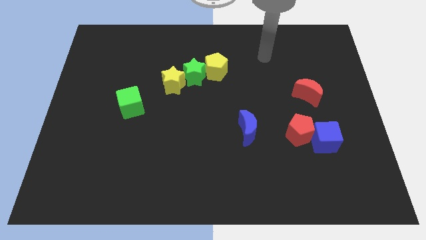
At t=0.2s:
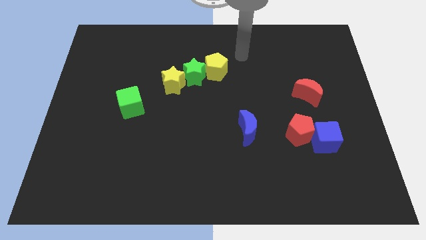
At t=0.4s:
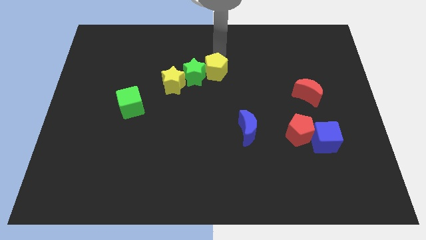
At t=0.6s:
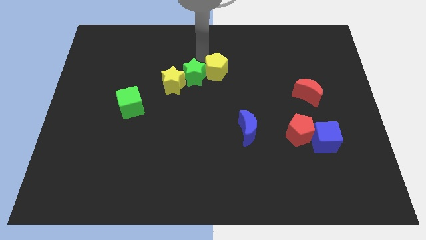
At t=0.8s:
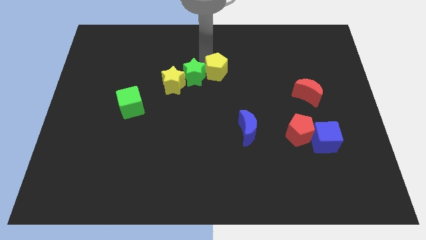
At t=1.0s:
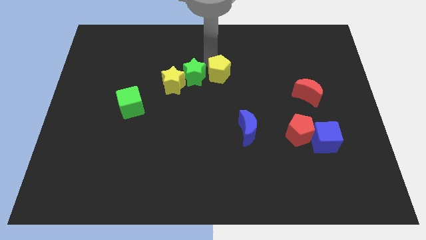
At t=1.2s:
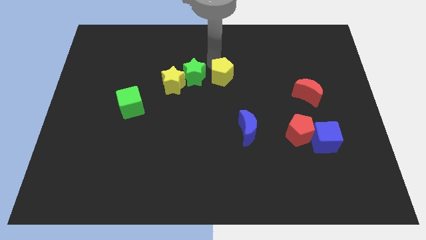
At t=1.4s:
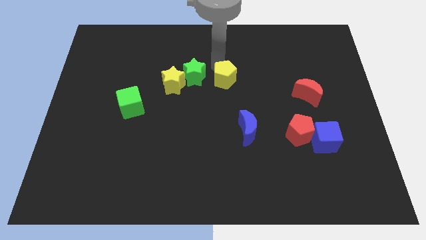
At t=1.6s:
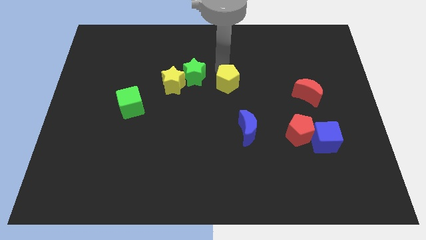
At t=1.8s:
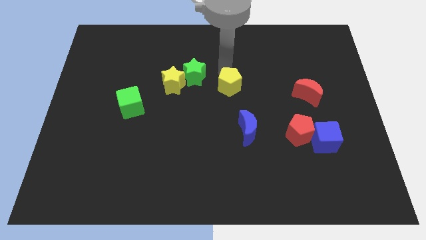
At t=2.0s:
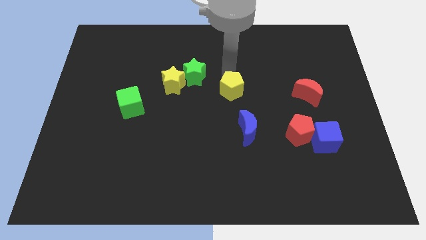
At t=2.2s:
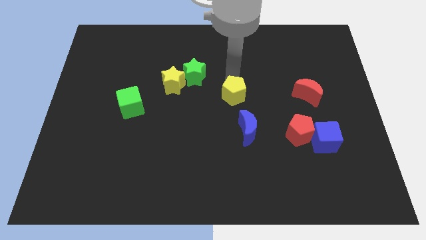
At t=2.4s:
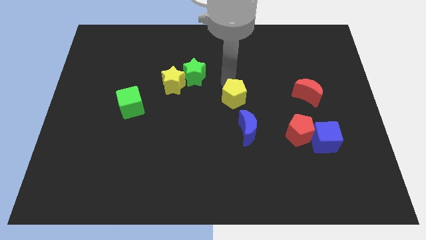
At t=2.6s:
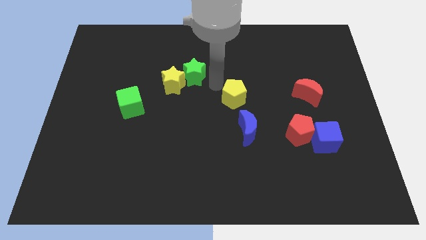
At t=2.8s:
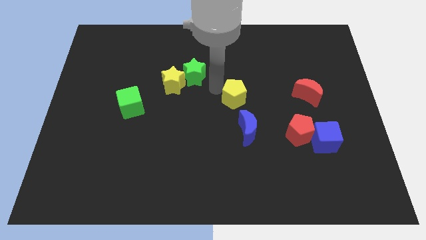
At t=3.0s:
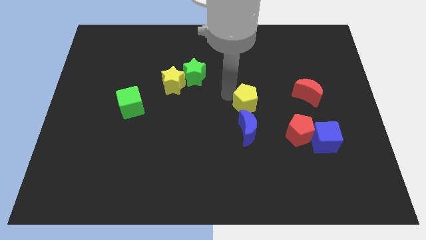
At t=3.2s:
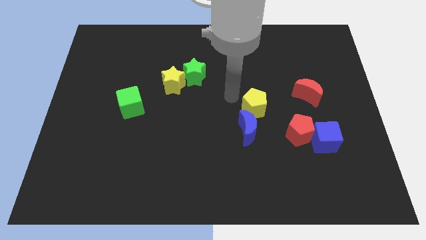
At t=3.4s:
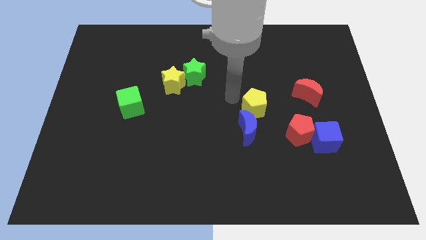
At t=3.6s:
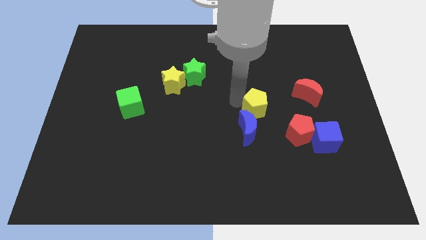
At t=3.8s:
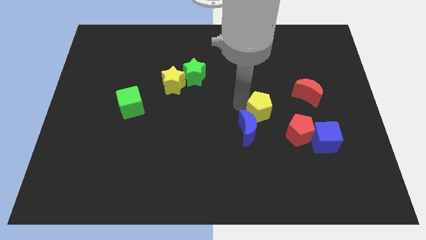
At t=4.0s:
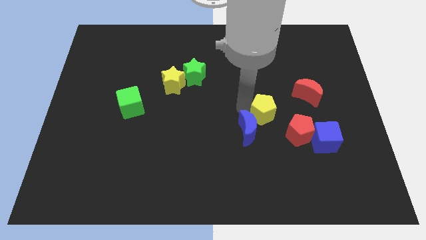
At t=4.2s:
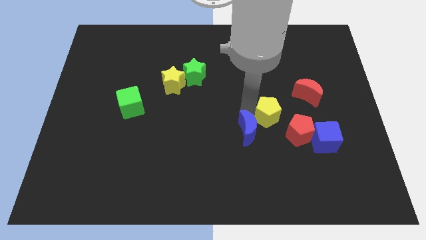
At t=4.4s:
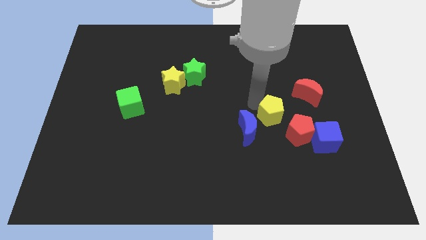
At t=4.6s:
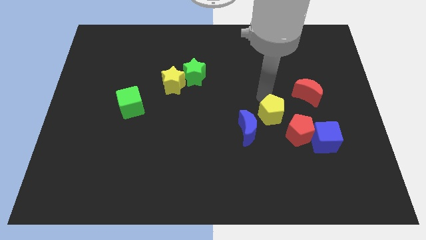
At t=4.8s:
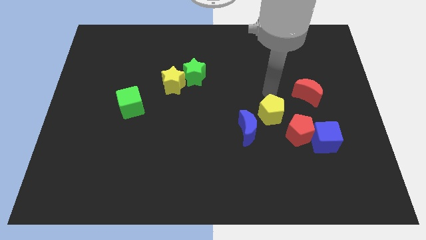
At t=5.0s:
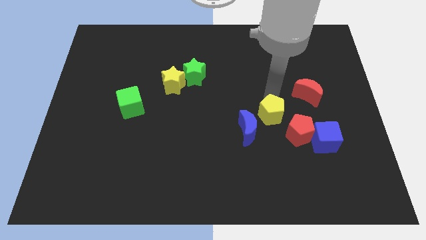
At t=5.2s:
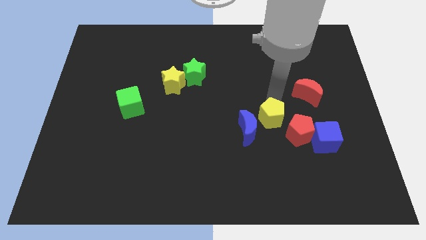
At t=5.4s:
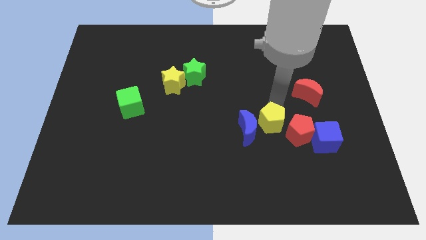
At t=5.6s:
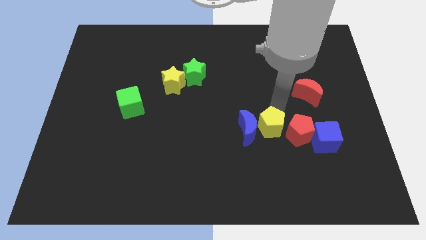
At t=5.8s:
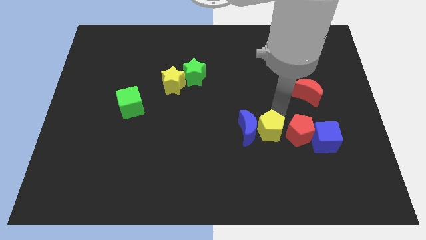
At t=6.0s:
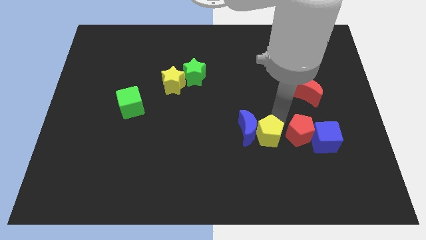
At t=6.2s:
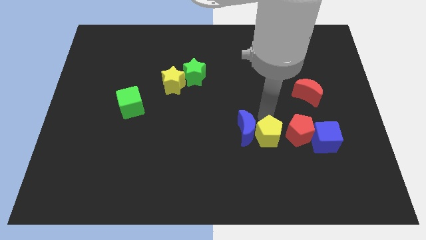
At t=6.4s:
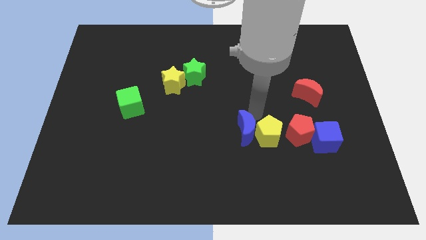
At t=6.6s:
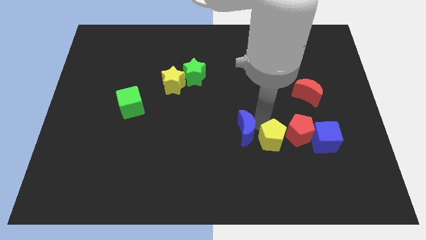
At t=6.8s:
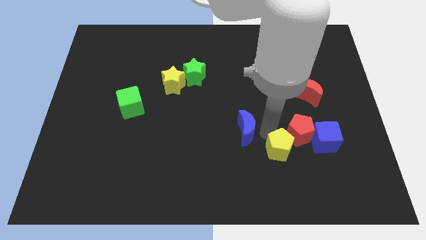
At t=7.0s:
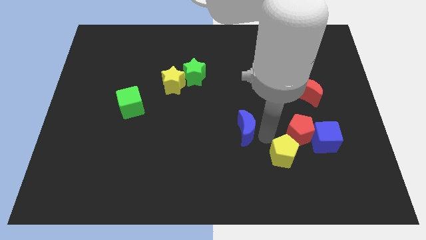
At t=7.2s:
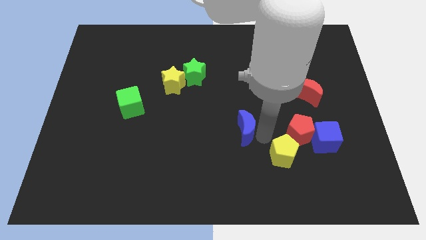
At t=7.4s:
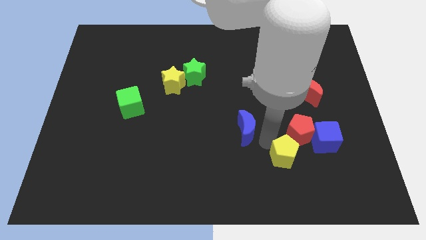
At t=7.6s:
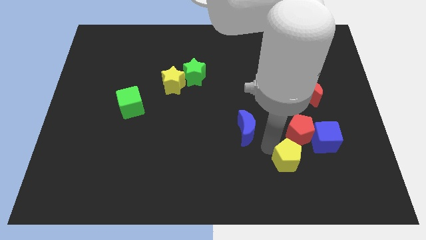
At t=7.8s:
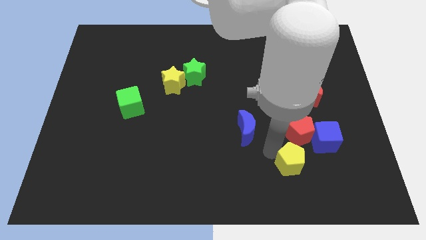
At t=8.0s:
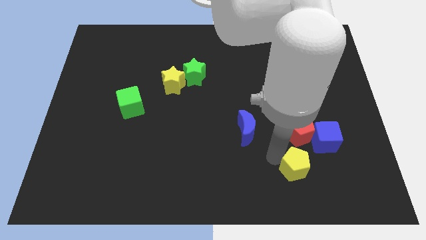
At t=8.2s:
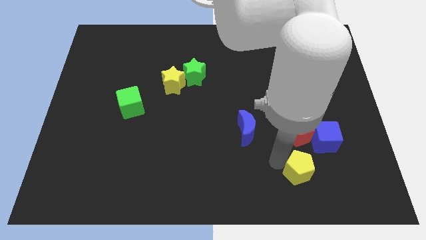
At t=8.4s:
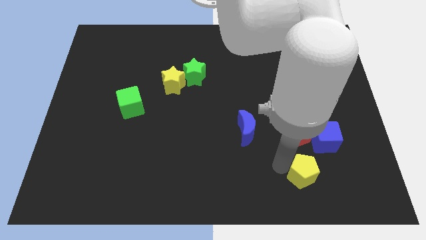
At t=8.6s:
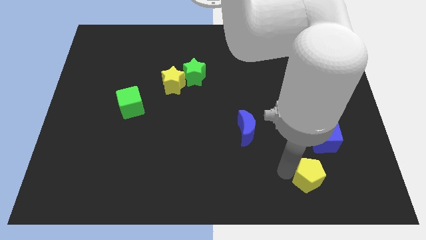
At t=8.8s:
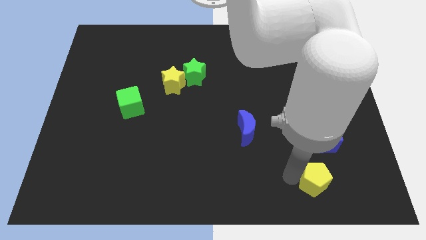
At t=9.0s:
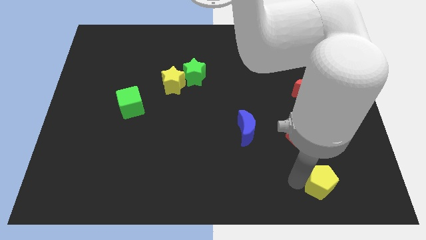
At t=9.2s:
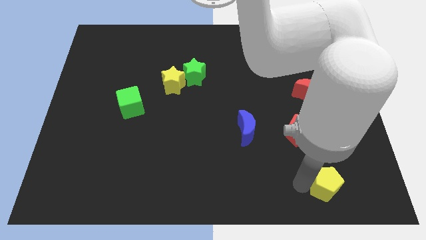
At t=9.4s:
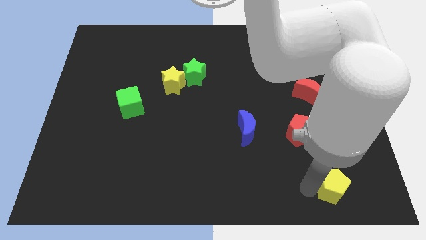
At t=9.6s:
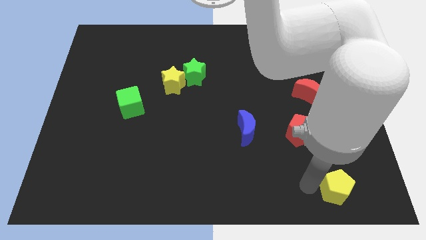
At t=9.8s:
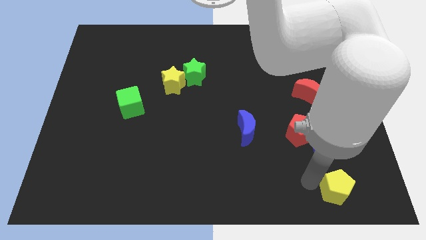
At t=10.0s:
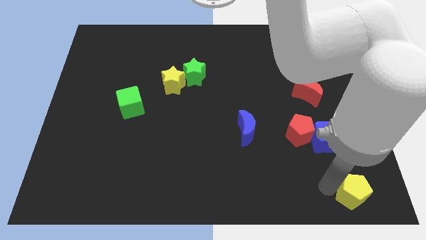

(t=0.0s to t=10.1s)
push the yellow pentagon to the lower right corner

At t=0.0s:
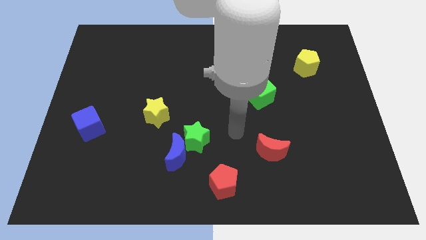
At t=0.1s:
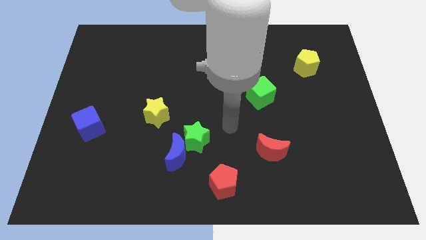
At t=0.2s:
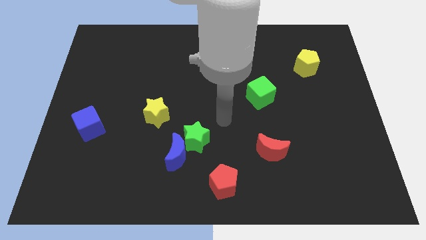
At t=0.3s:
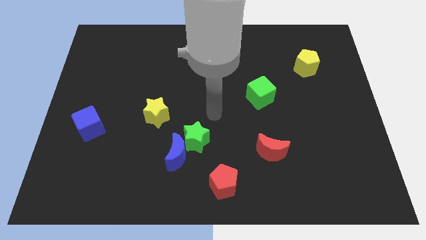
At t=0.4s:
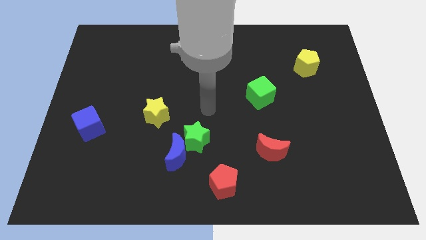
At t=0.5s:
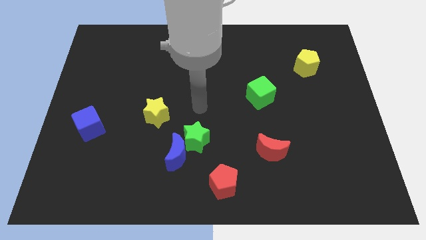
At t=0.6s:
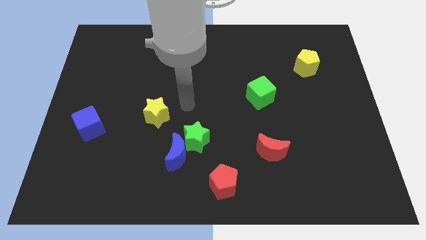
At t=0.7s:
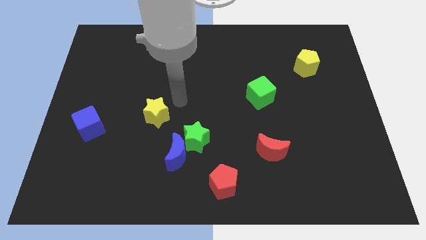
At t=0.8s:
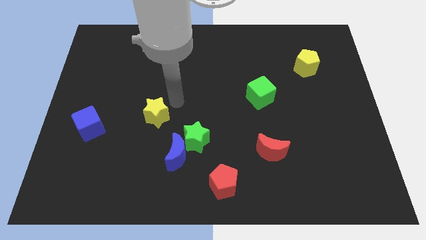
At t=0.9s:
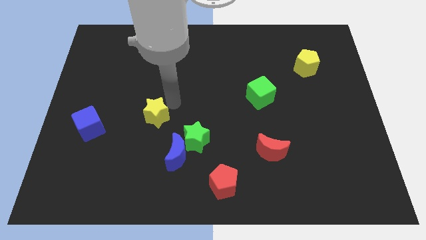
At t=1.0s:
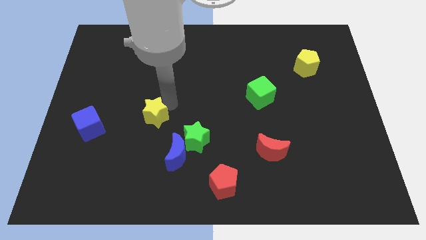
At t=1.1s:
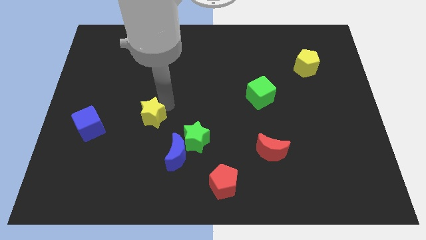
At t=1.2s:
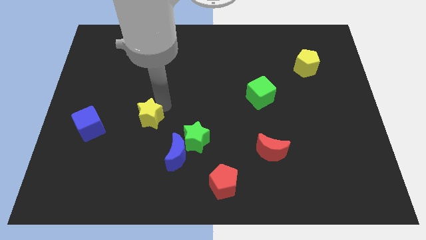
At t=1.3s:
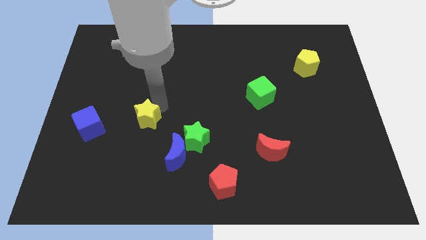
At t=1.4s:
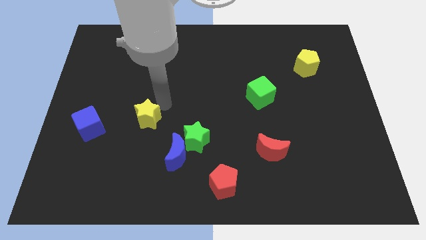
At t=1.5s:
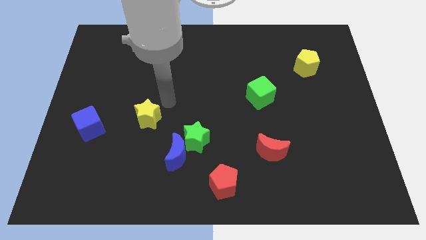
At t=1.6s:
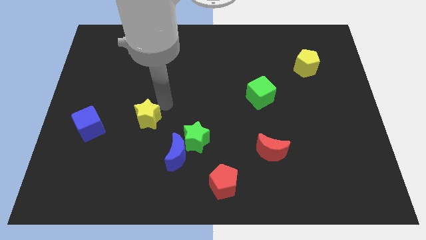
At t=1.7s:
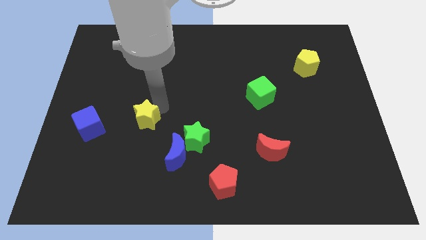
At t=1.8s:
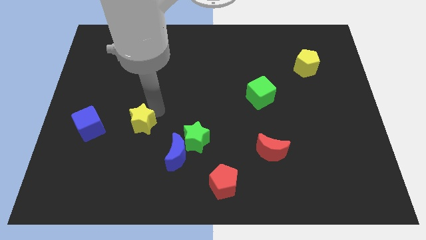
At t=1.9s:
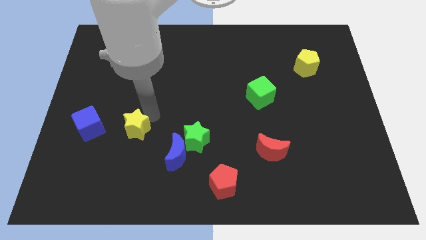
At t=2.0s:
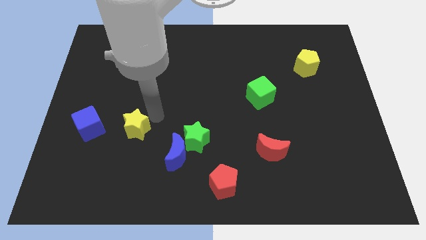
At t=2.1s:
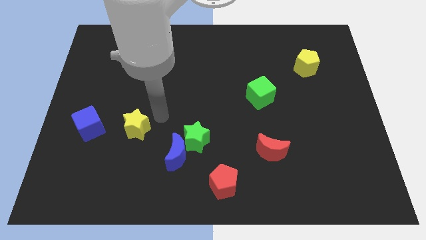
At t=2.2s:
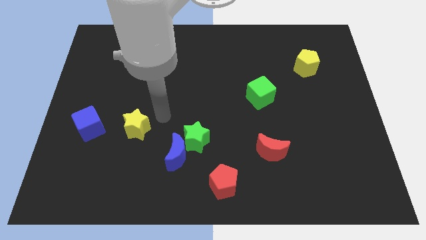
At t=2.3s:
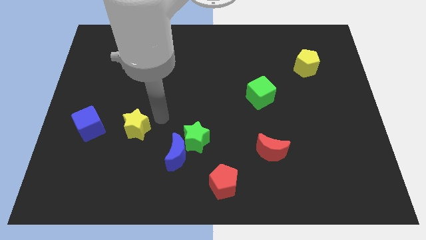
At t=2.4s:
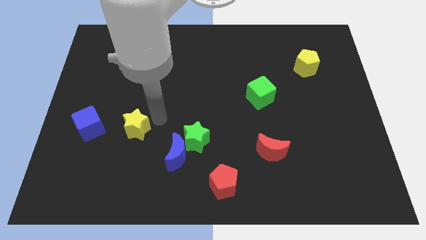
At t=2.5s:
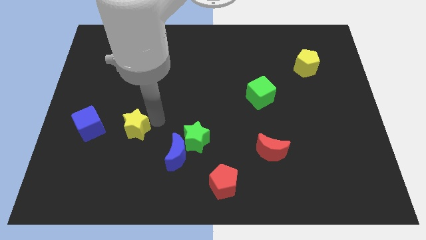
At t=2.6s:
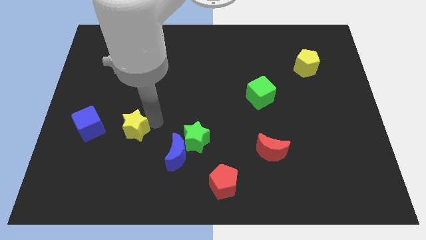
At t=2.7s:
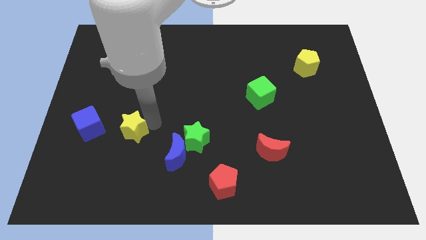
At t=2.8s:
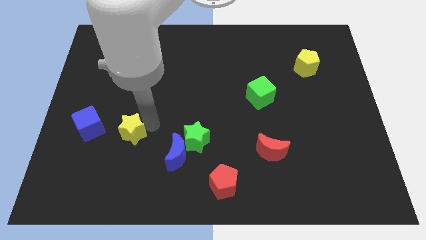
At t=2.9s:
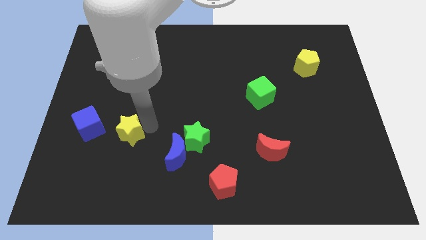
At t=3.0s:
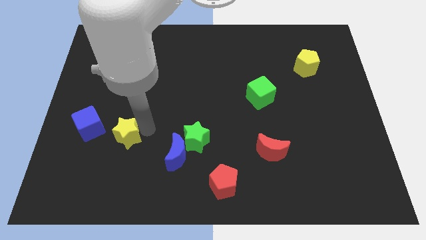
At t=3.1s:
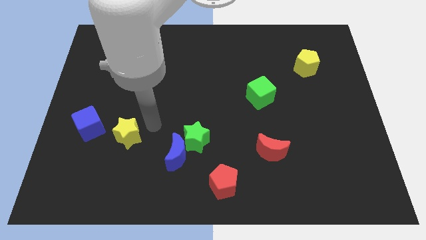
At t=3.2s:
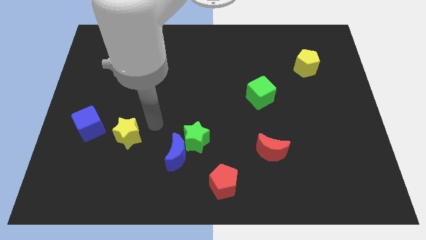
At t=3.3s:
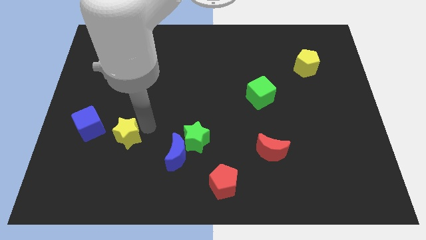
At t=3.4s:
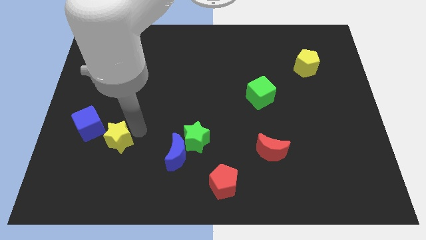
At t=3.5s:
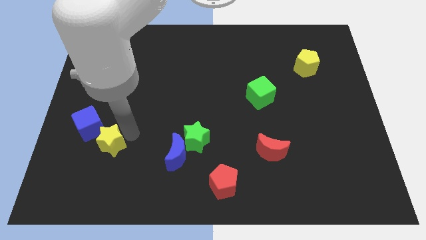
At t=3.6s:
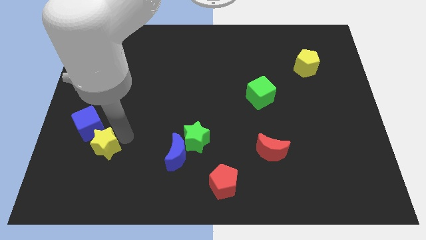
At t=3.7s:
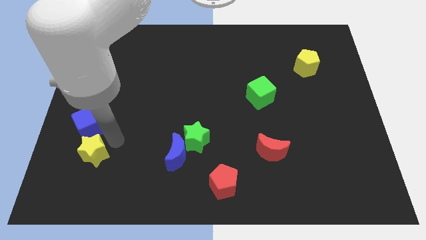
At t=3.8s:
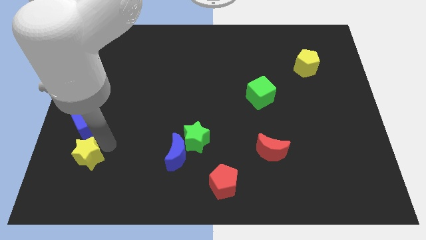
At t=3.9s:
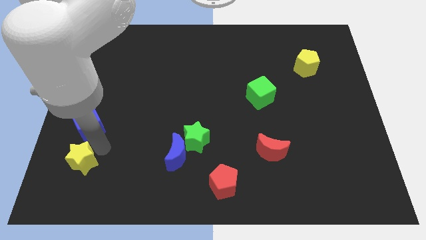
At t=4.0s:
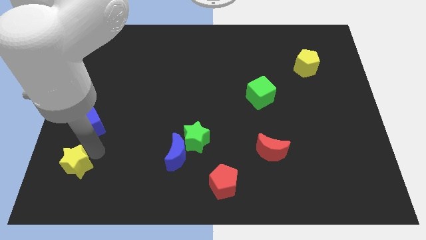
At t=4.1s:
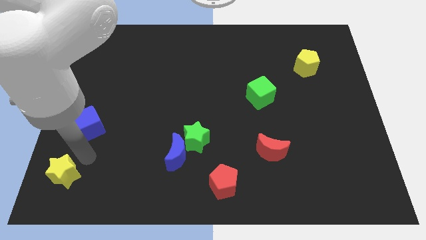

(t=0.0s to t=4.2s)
put the yellow star to the bottom left of the board
